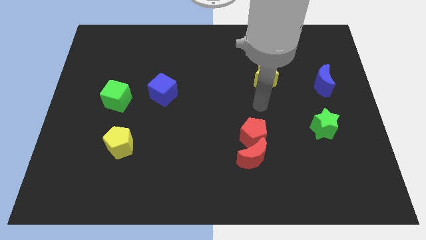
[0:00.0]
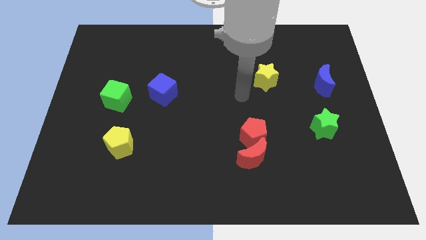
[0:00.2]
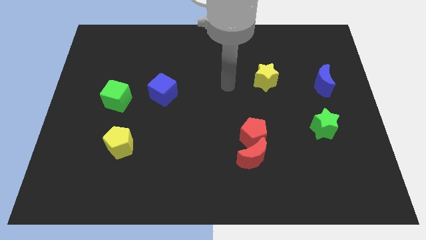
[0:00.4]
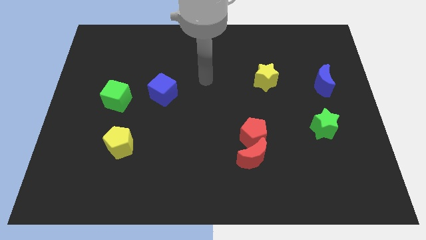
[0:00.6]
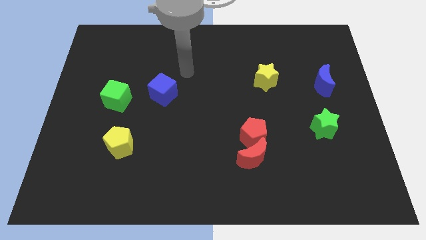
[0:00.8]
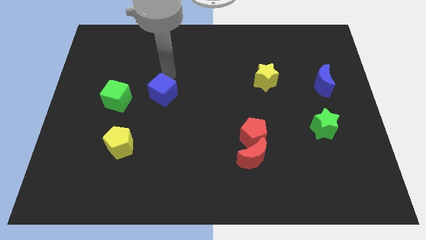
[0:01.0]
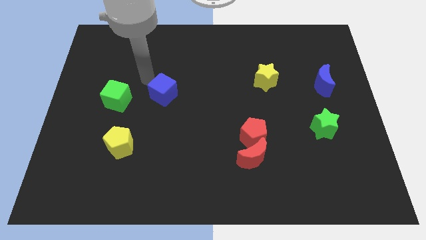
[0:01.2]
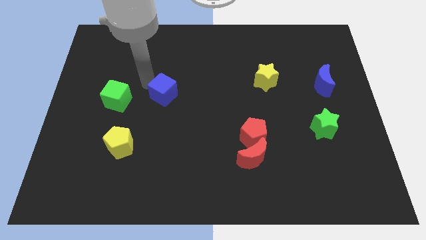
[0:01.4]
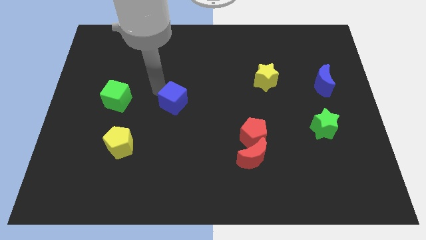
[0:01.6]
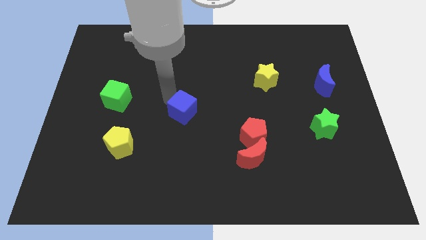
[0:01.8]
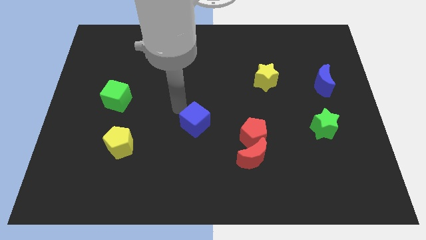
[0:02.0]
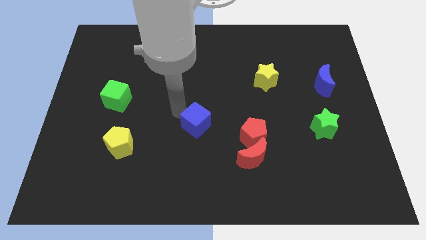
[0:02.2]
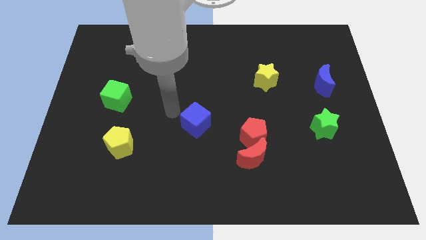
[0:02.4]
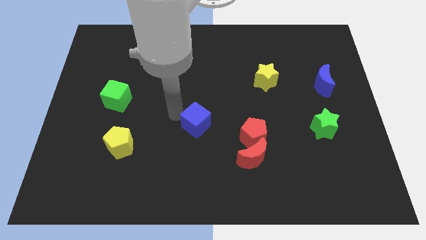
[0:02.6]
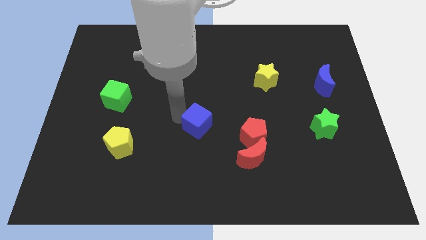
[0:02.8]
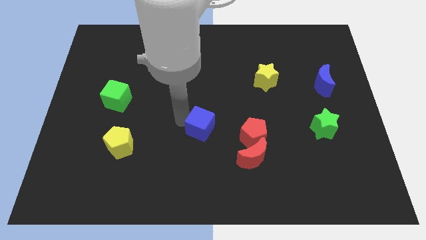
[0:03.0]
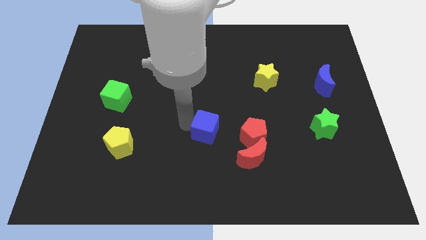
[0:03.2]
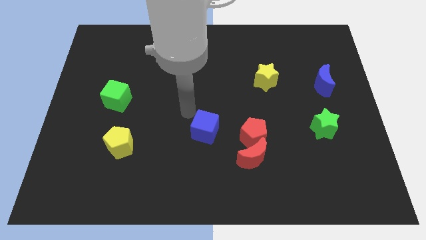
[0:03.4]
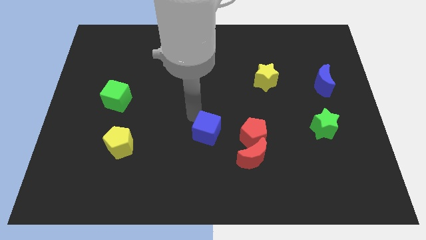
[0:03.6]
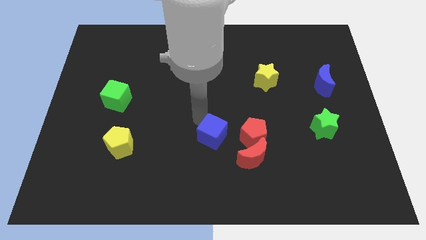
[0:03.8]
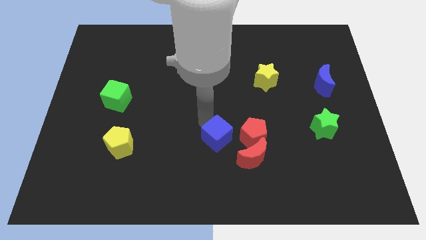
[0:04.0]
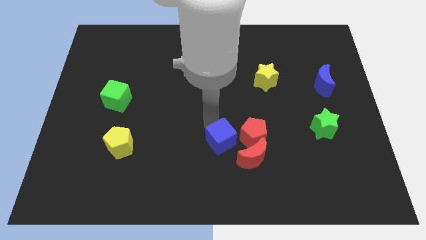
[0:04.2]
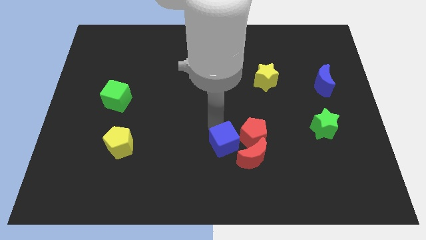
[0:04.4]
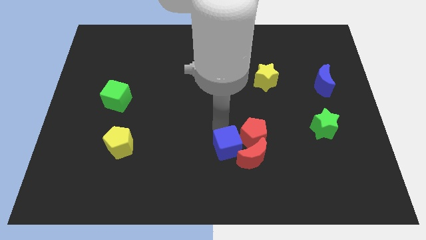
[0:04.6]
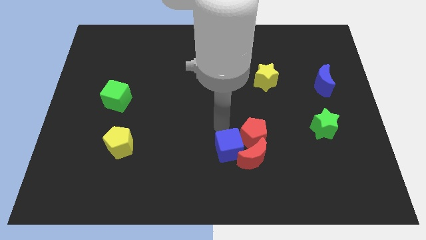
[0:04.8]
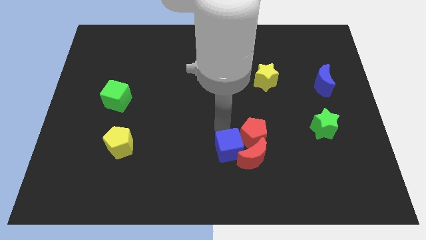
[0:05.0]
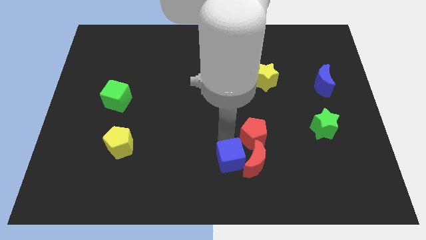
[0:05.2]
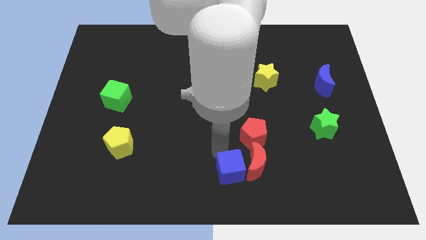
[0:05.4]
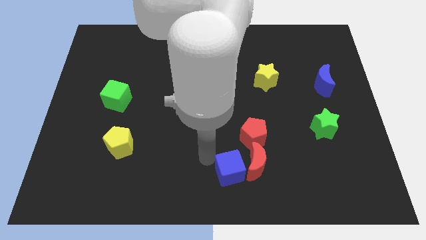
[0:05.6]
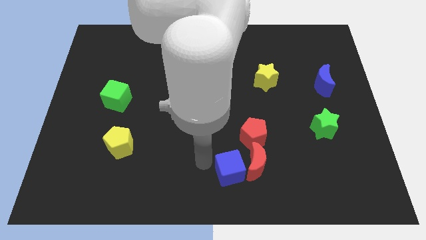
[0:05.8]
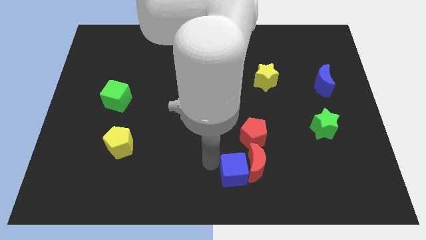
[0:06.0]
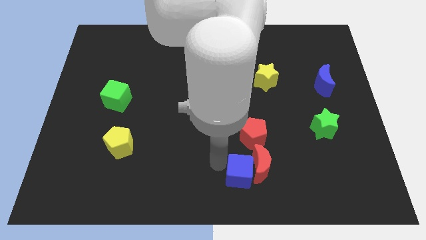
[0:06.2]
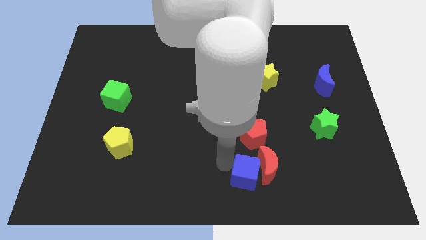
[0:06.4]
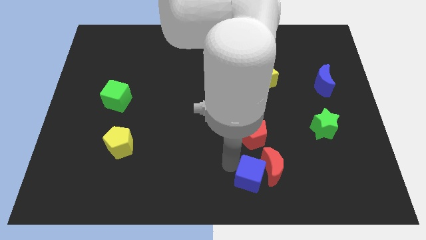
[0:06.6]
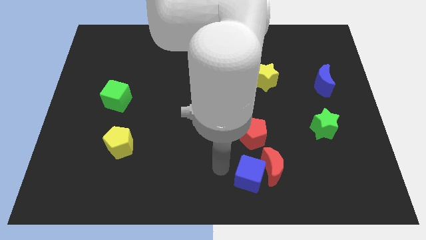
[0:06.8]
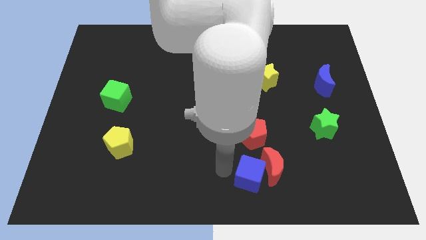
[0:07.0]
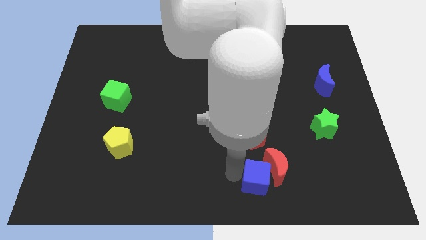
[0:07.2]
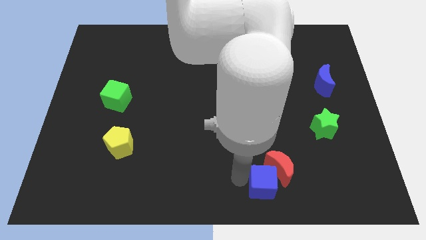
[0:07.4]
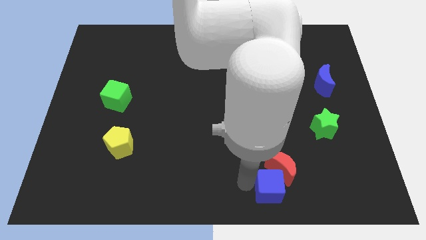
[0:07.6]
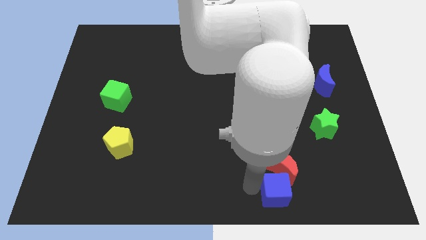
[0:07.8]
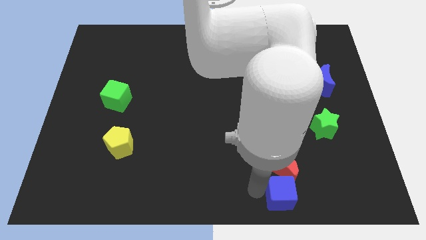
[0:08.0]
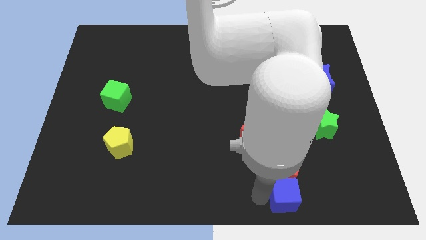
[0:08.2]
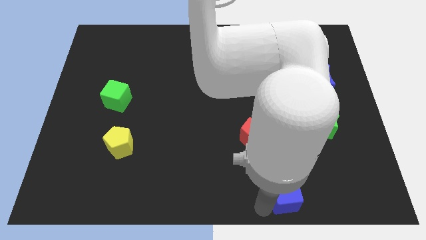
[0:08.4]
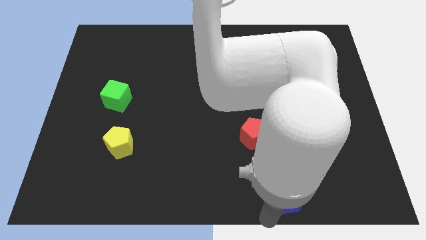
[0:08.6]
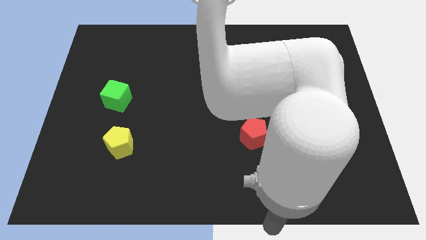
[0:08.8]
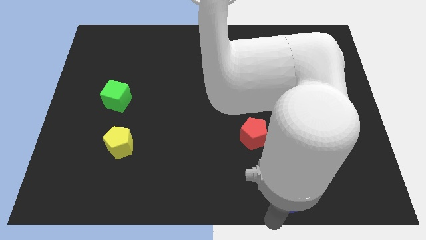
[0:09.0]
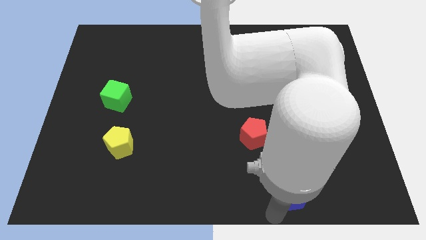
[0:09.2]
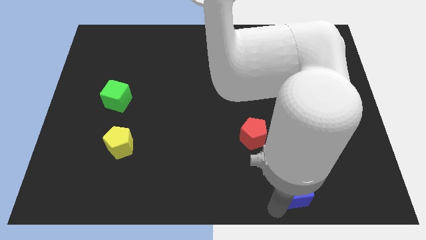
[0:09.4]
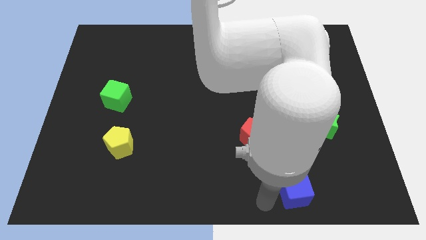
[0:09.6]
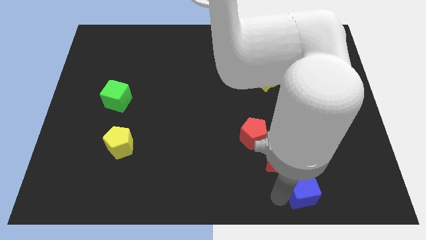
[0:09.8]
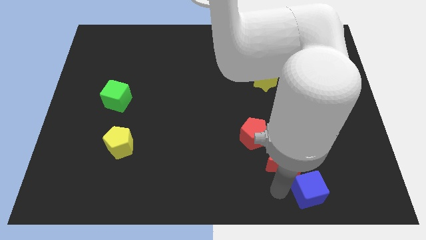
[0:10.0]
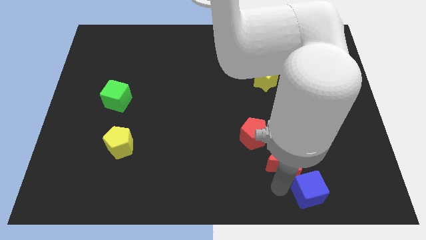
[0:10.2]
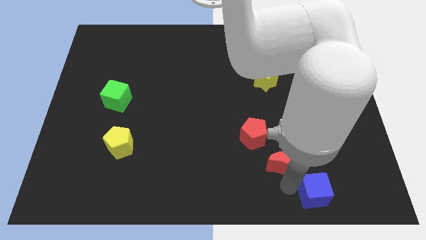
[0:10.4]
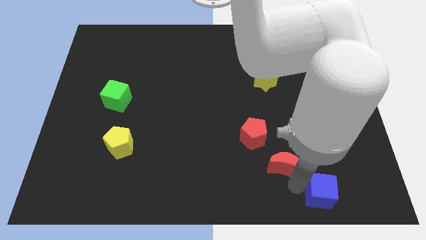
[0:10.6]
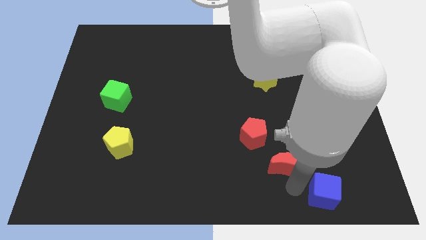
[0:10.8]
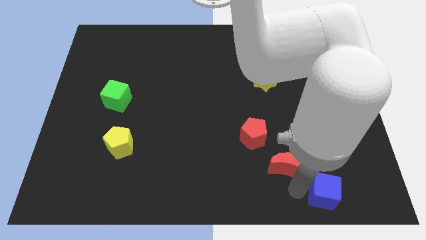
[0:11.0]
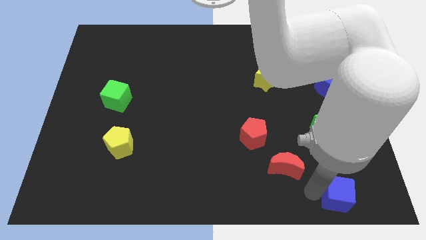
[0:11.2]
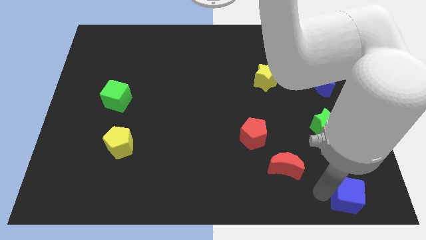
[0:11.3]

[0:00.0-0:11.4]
move the blue cube to the lower right corner

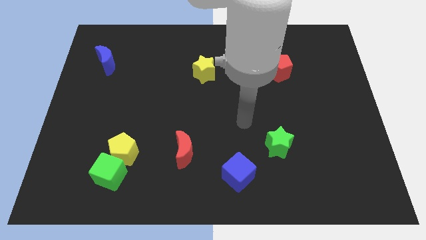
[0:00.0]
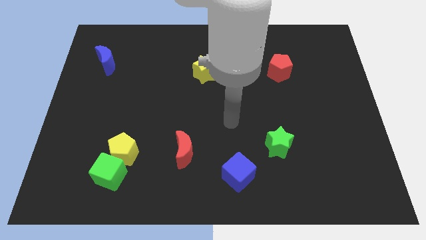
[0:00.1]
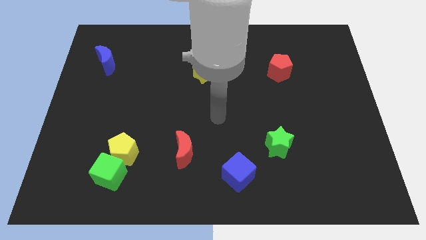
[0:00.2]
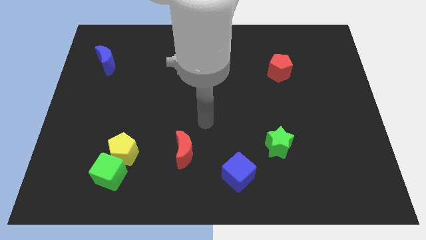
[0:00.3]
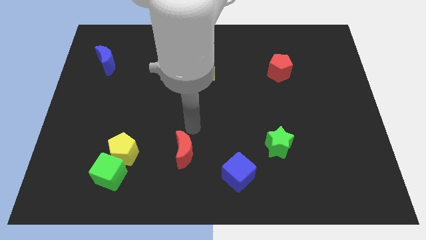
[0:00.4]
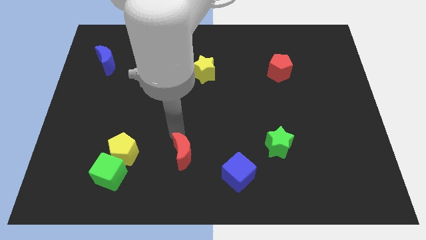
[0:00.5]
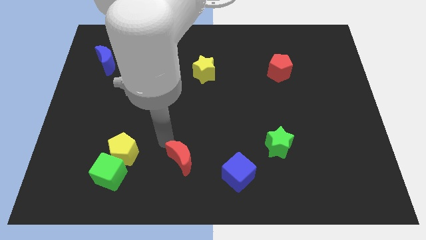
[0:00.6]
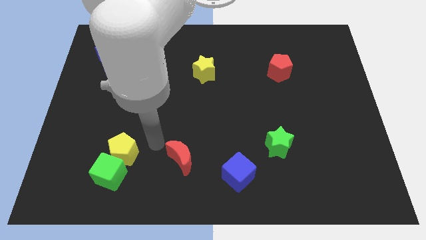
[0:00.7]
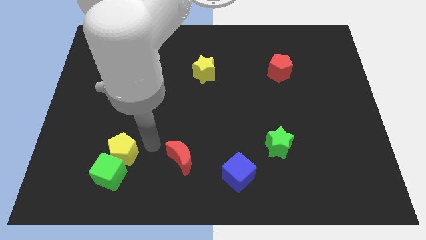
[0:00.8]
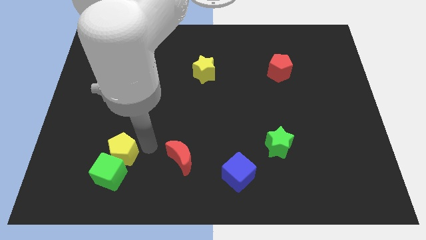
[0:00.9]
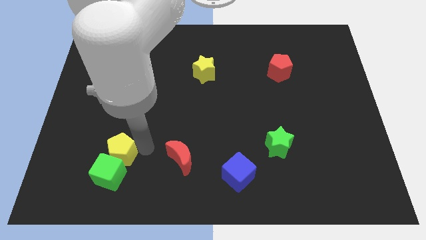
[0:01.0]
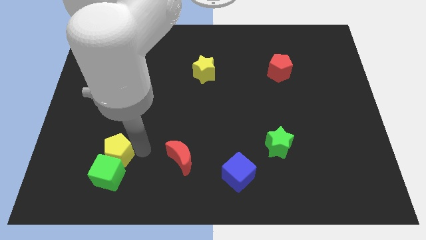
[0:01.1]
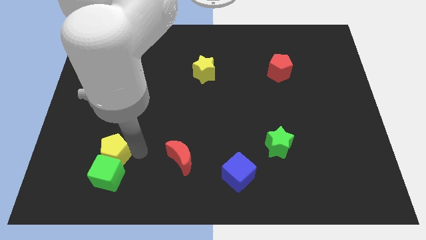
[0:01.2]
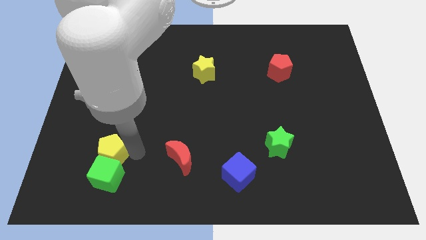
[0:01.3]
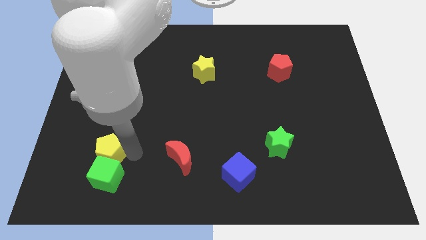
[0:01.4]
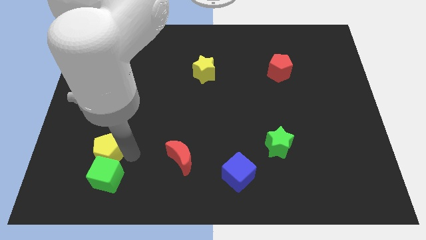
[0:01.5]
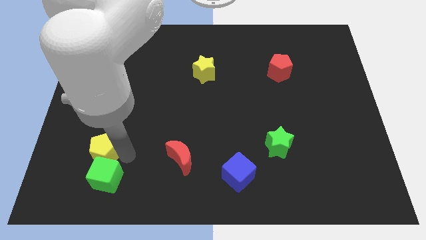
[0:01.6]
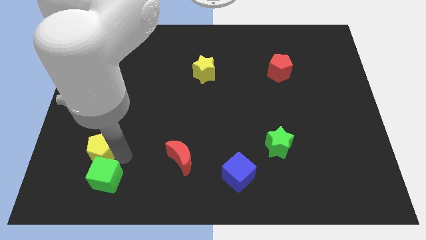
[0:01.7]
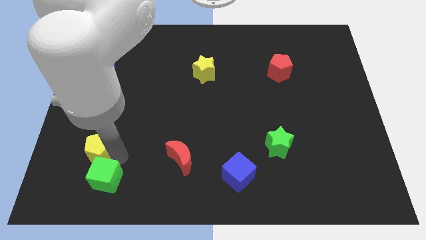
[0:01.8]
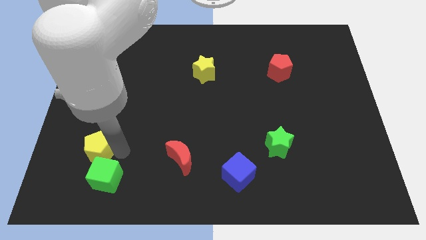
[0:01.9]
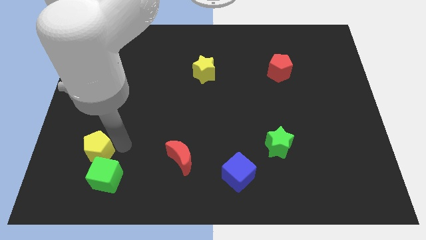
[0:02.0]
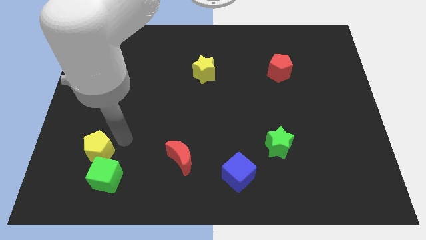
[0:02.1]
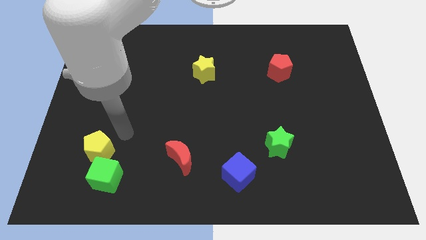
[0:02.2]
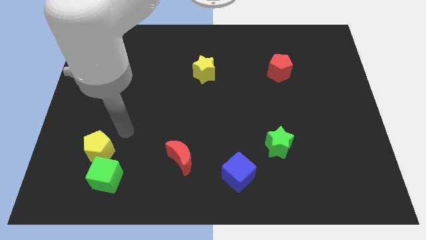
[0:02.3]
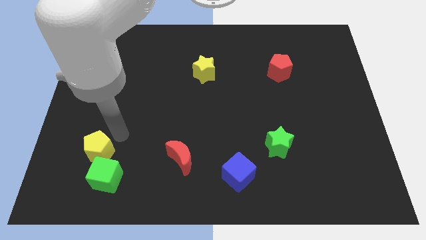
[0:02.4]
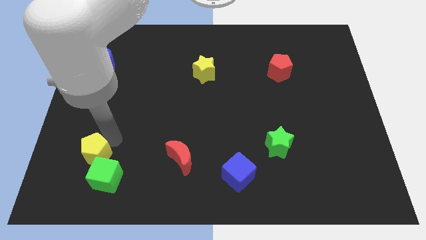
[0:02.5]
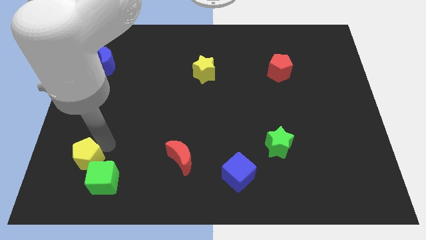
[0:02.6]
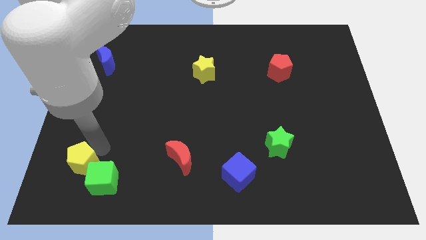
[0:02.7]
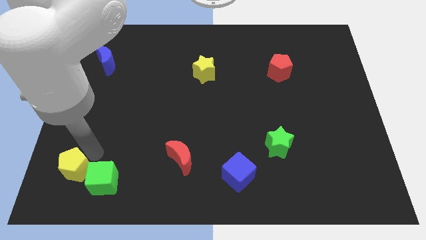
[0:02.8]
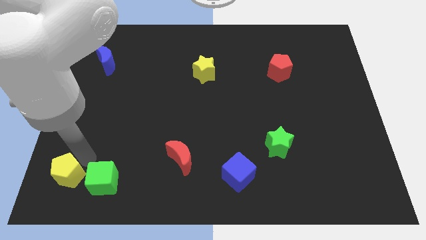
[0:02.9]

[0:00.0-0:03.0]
put the yellow pentagon to the lower left corner
